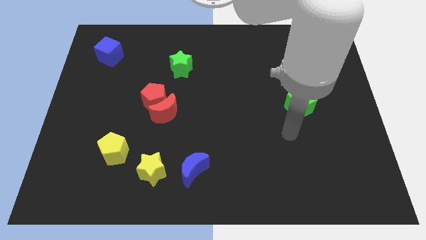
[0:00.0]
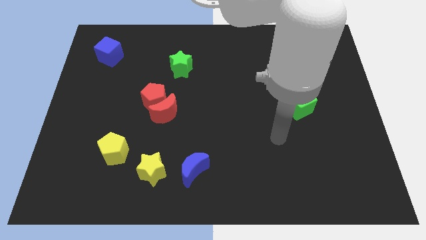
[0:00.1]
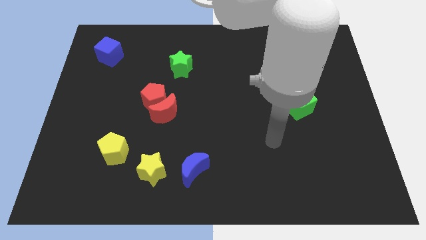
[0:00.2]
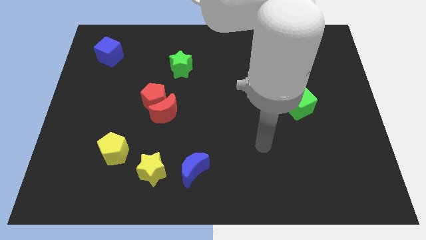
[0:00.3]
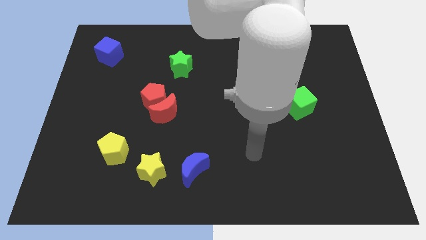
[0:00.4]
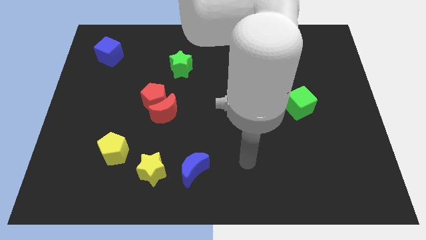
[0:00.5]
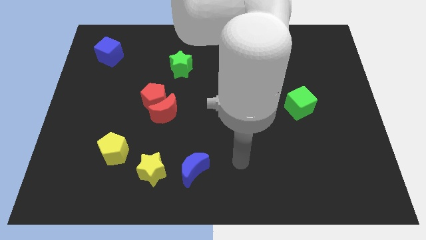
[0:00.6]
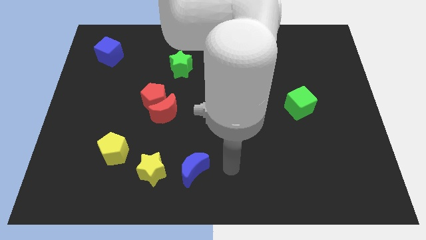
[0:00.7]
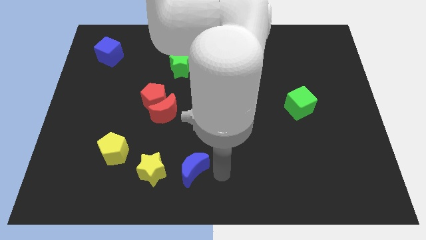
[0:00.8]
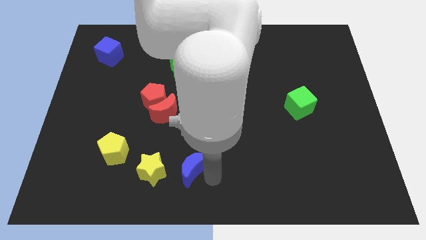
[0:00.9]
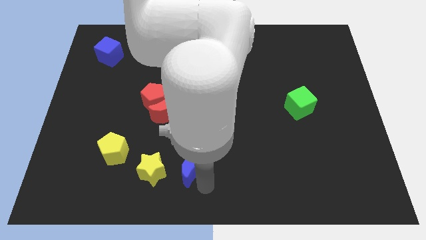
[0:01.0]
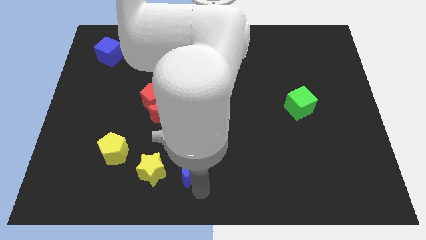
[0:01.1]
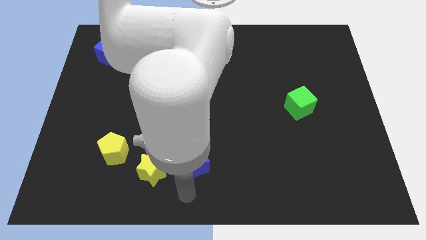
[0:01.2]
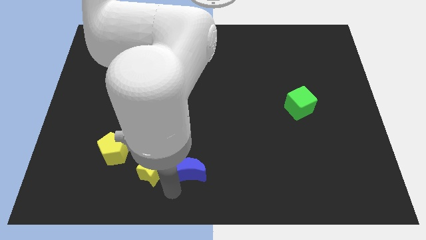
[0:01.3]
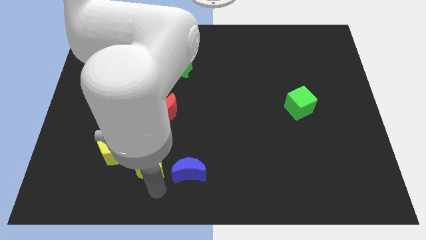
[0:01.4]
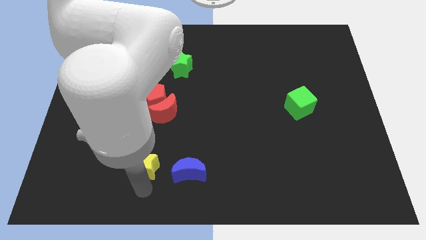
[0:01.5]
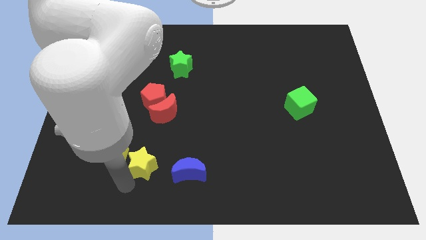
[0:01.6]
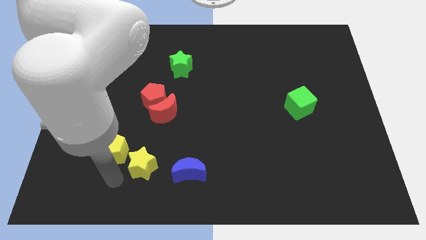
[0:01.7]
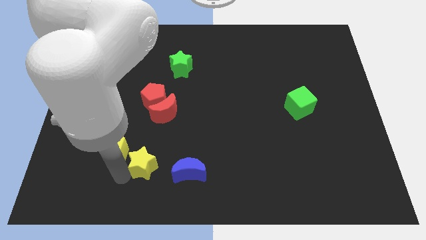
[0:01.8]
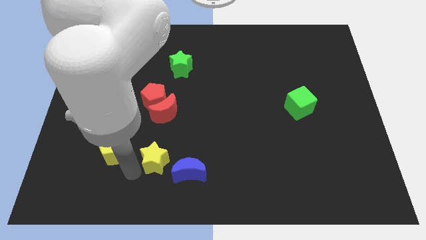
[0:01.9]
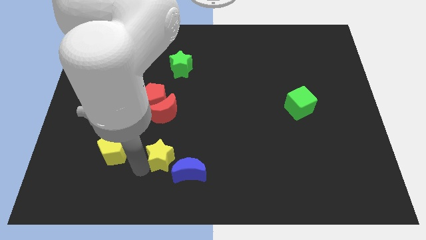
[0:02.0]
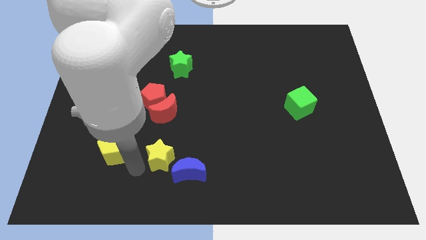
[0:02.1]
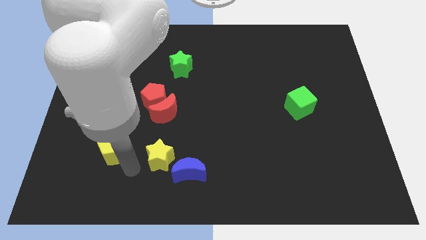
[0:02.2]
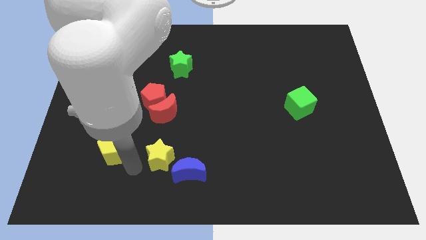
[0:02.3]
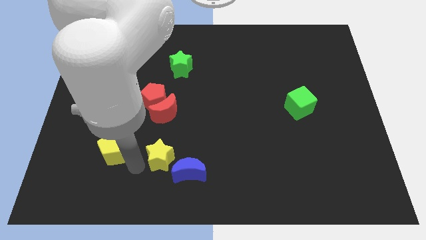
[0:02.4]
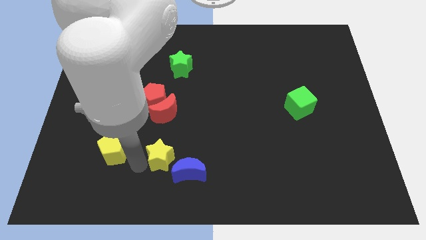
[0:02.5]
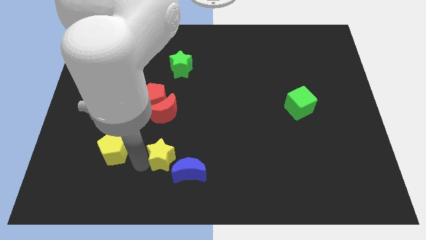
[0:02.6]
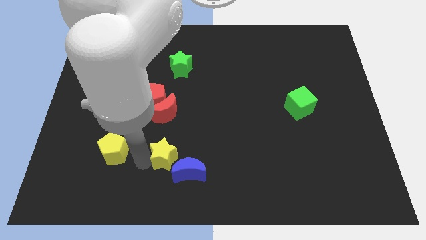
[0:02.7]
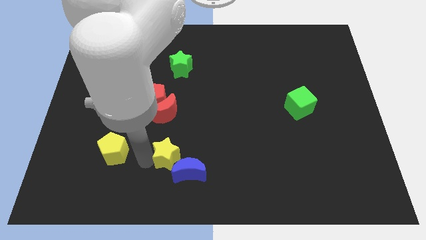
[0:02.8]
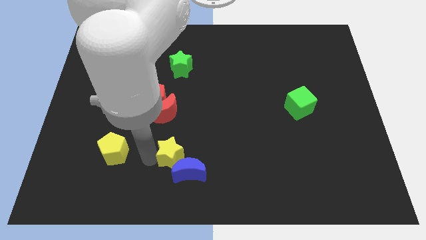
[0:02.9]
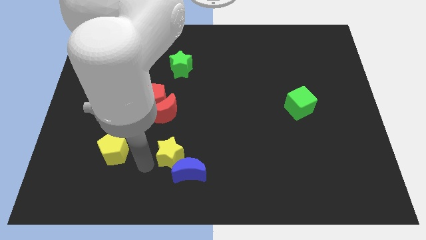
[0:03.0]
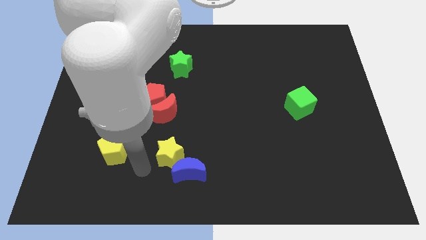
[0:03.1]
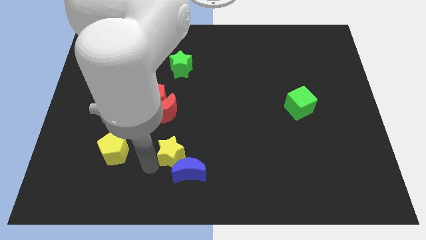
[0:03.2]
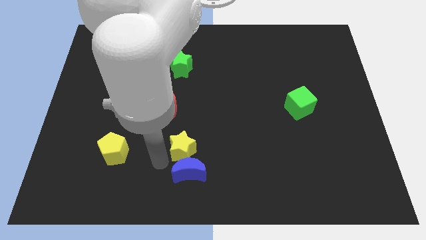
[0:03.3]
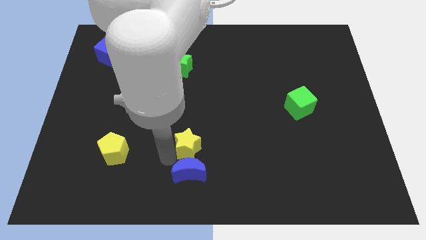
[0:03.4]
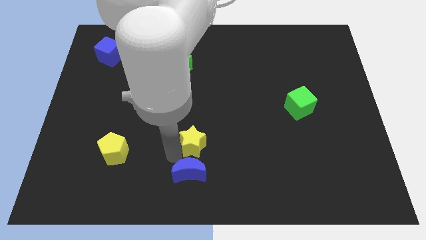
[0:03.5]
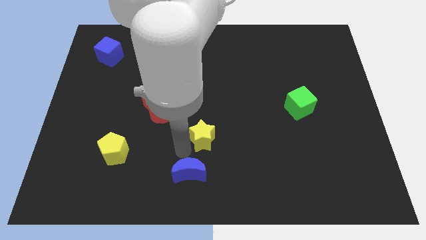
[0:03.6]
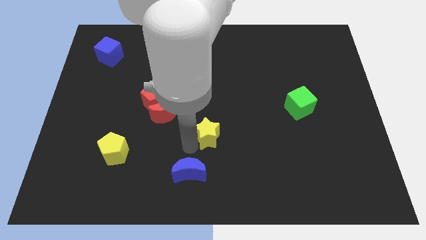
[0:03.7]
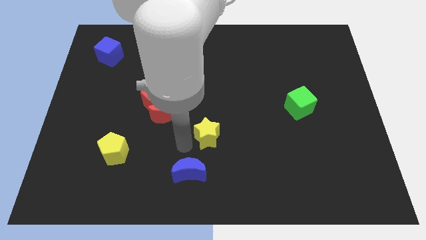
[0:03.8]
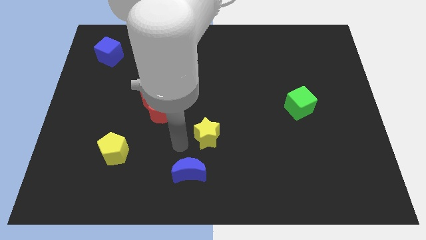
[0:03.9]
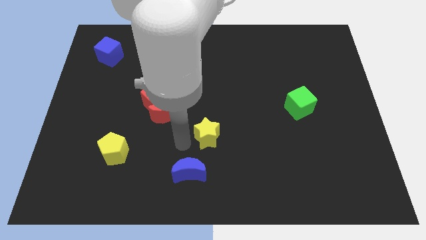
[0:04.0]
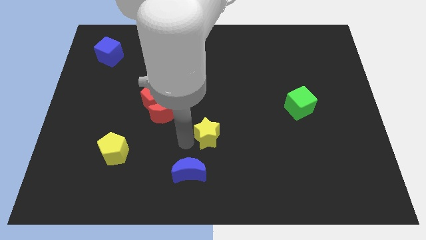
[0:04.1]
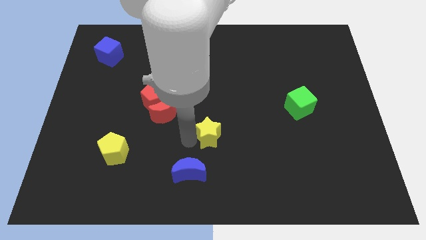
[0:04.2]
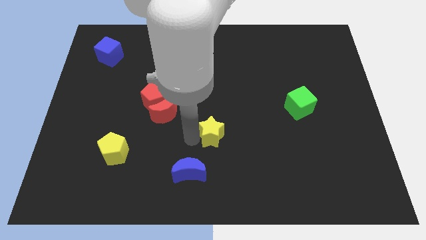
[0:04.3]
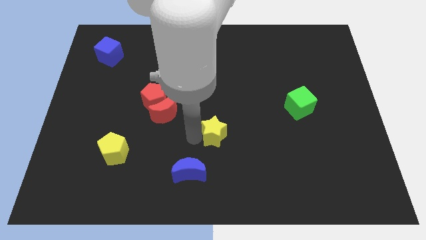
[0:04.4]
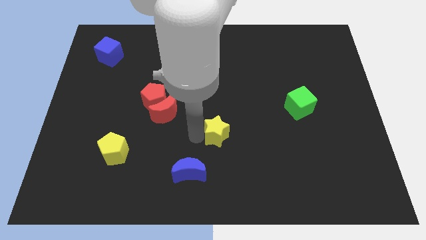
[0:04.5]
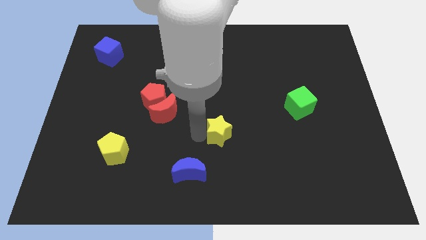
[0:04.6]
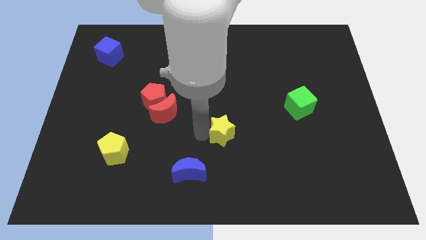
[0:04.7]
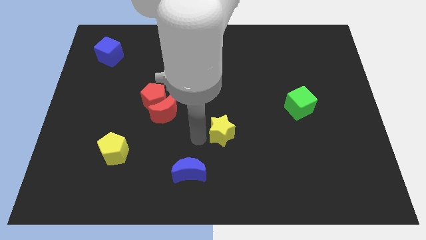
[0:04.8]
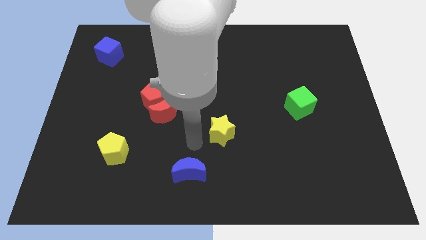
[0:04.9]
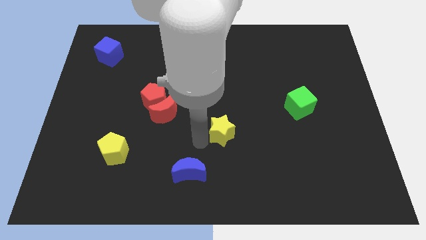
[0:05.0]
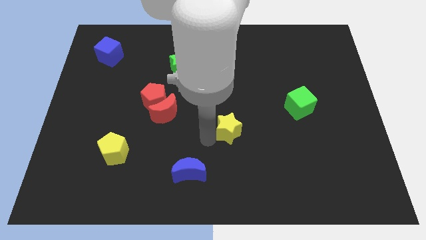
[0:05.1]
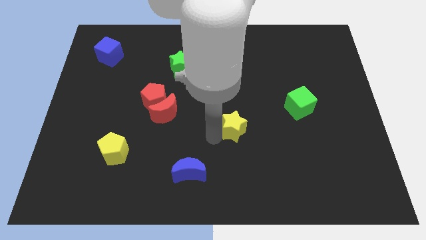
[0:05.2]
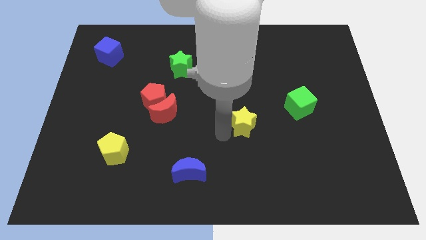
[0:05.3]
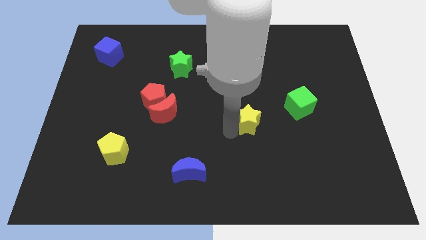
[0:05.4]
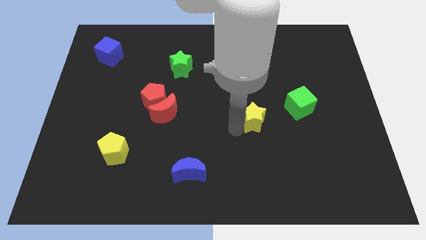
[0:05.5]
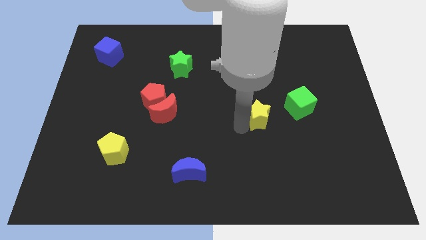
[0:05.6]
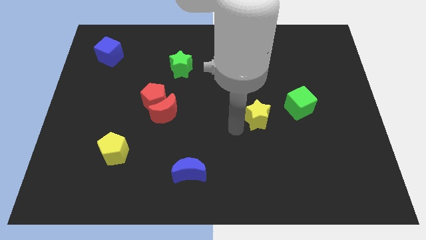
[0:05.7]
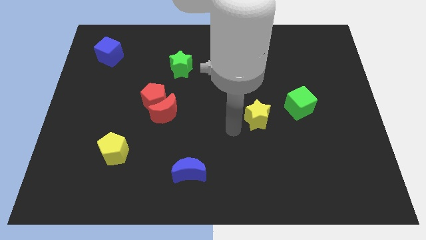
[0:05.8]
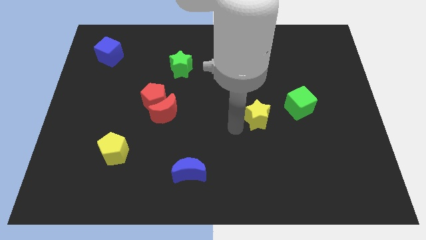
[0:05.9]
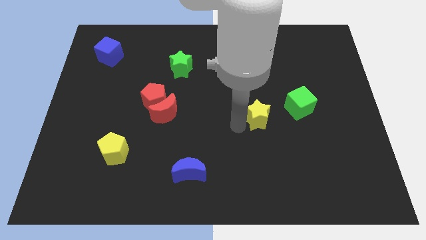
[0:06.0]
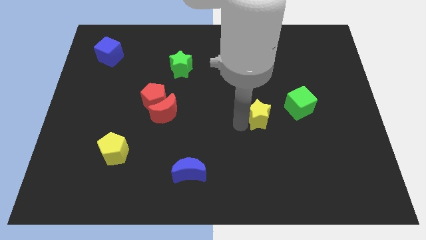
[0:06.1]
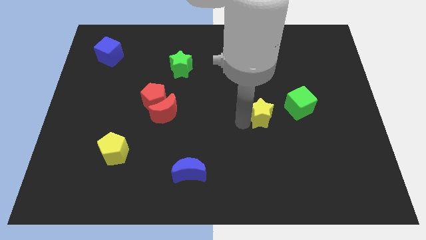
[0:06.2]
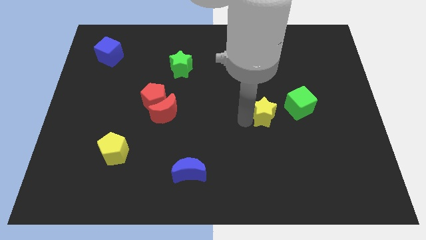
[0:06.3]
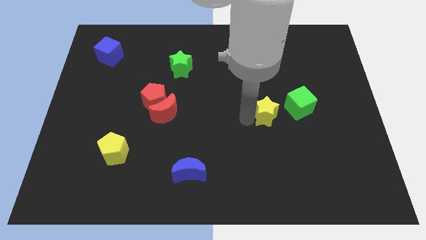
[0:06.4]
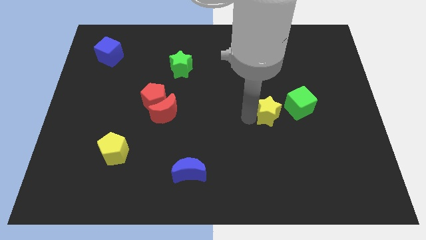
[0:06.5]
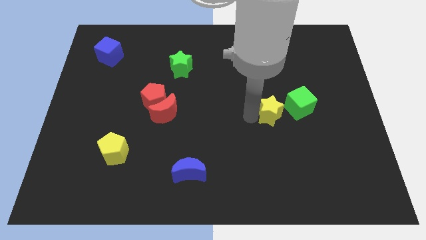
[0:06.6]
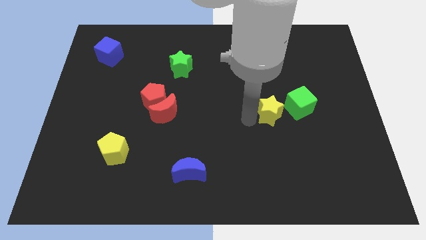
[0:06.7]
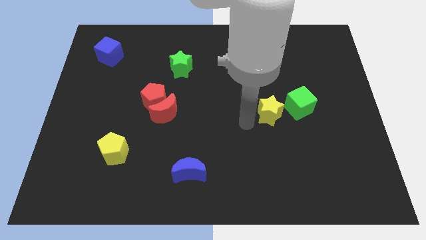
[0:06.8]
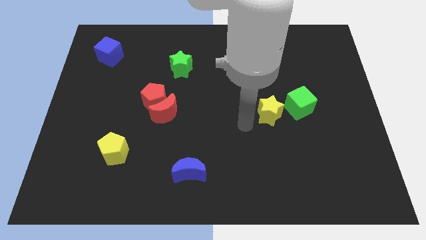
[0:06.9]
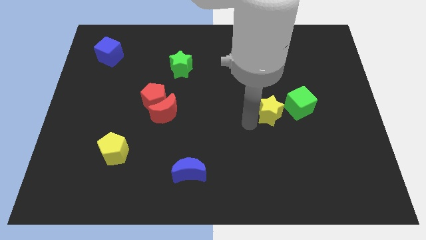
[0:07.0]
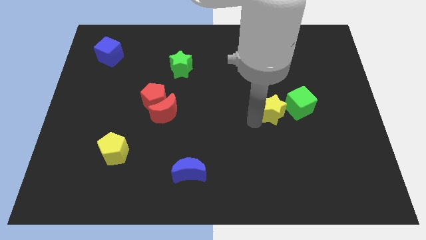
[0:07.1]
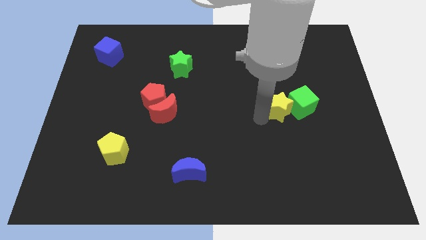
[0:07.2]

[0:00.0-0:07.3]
move the yellow star towards the green cube
